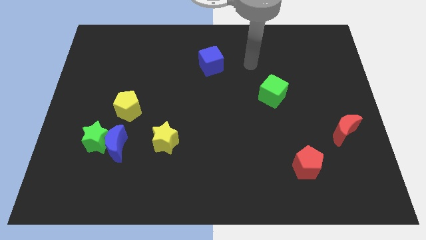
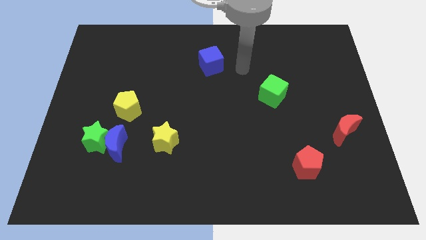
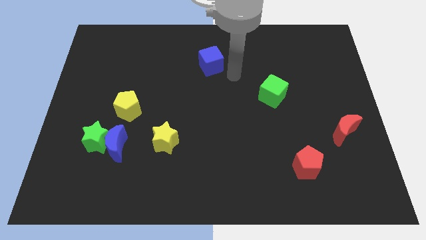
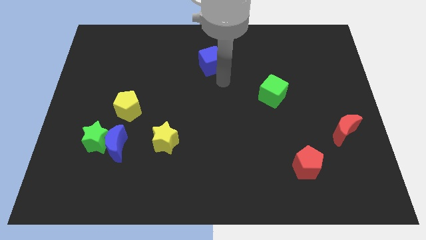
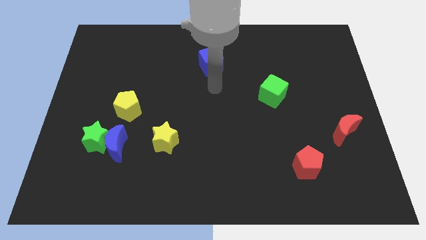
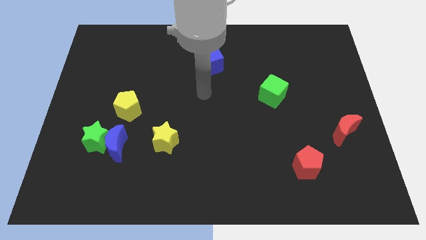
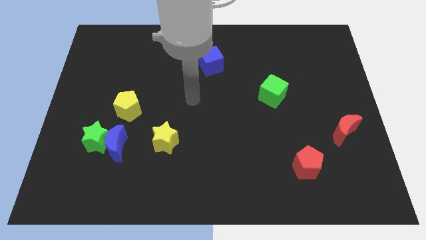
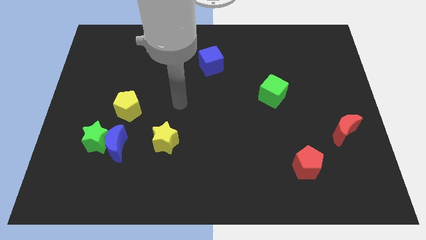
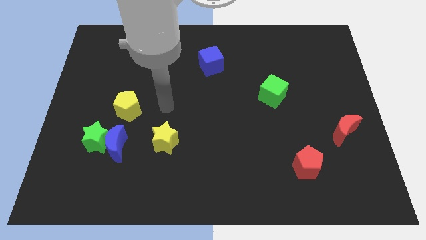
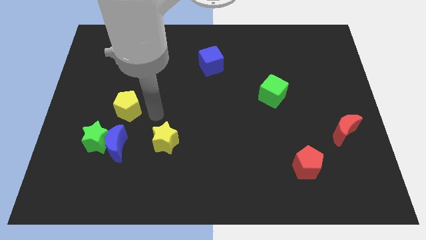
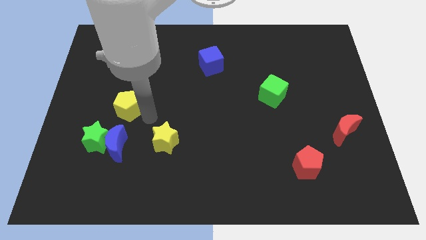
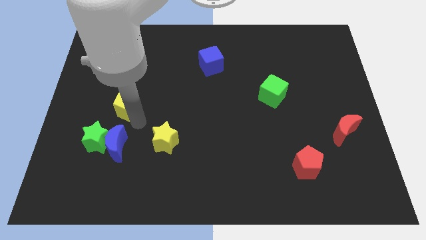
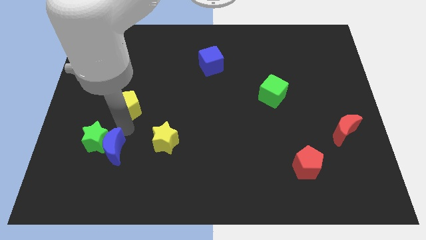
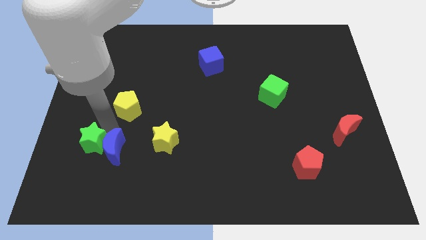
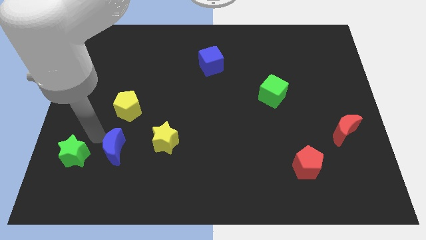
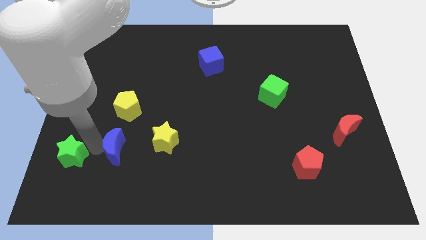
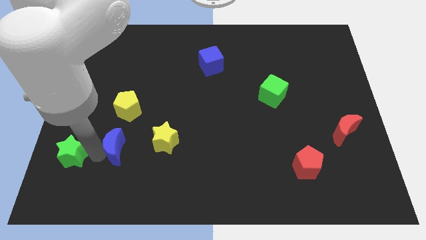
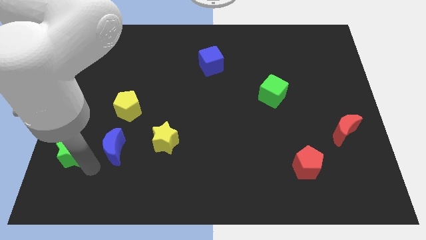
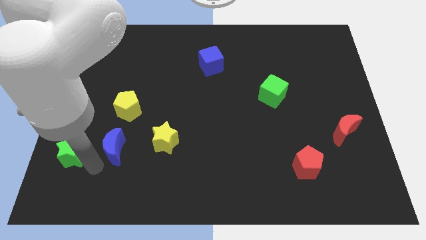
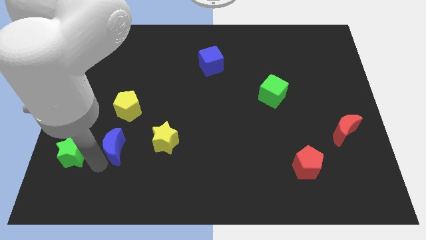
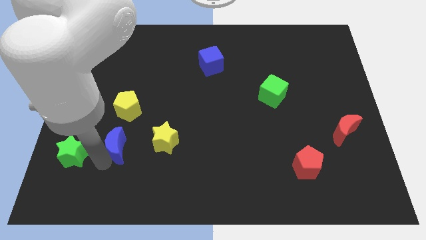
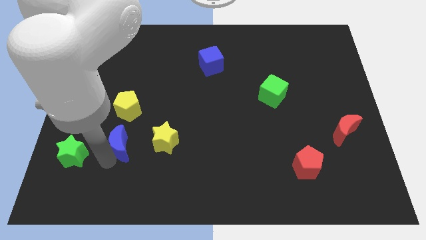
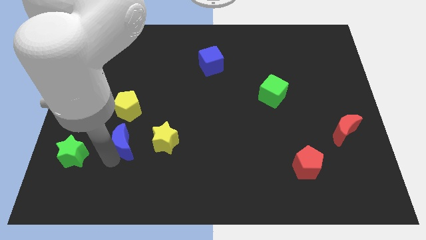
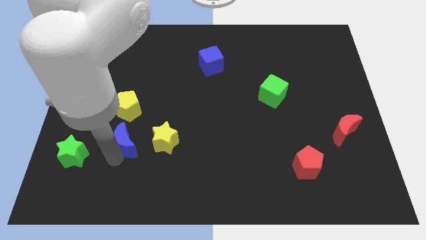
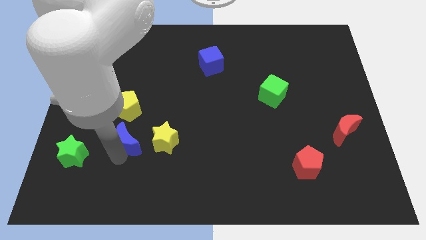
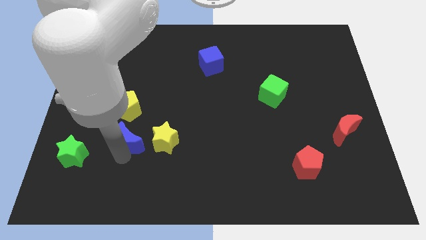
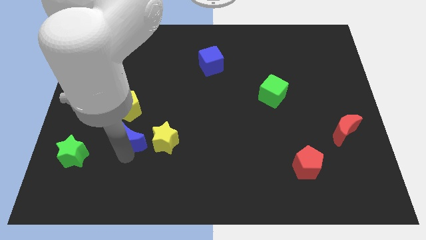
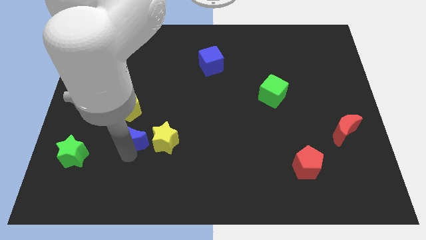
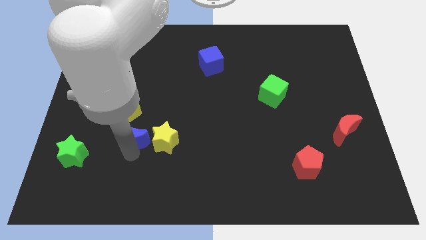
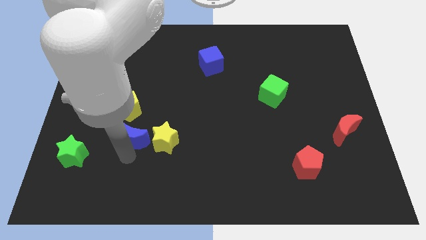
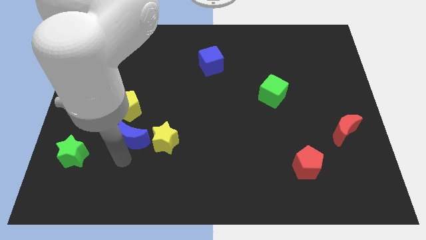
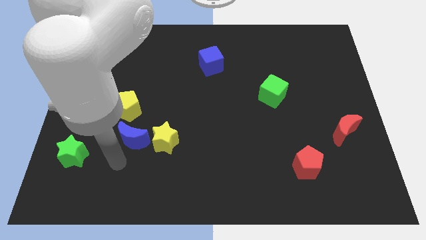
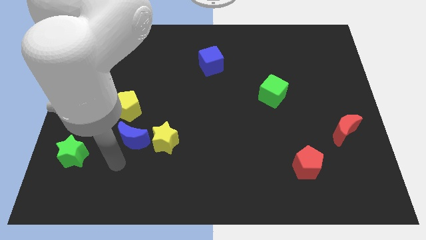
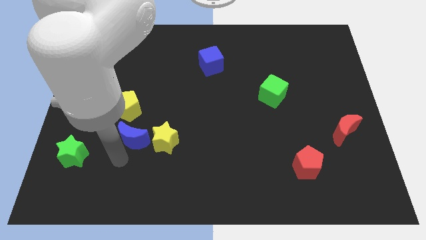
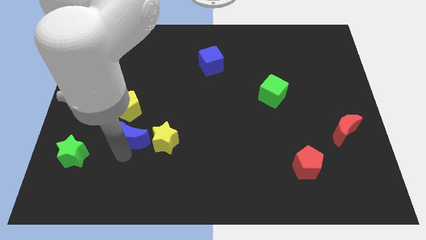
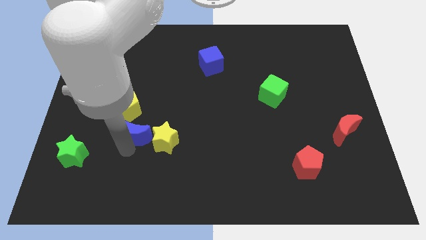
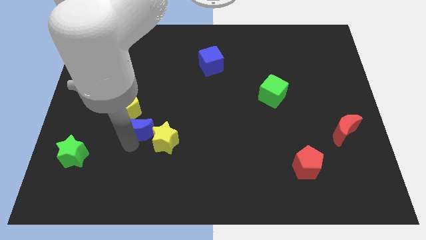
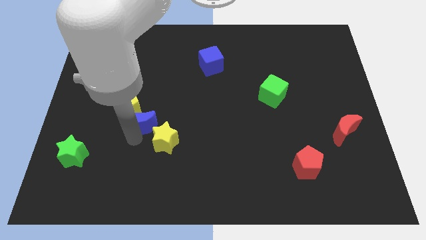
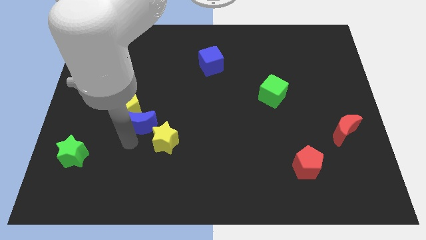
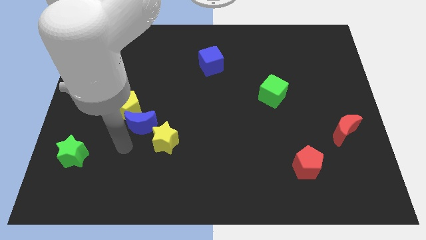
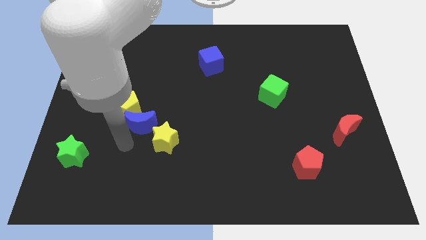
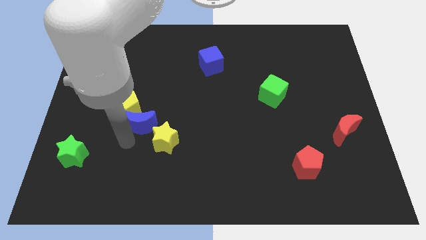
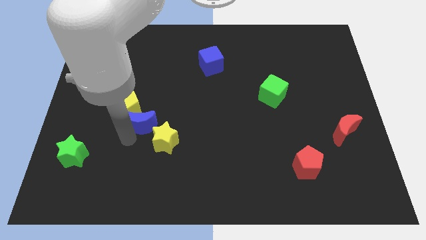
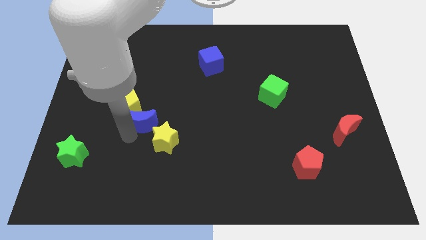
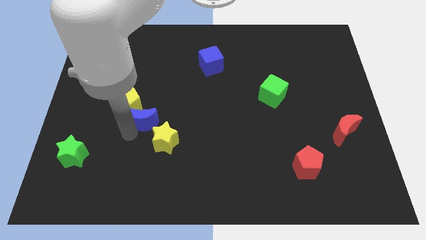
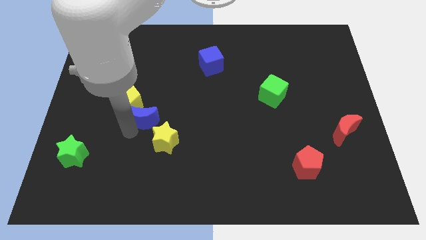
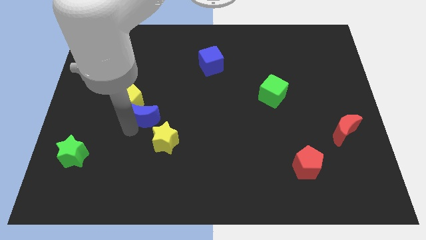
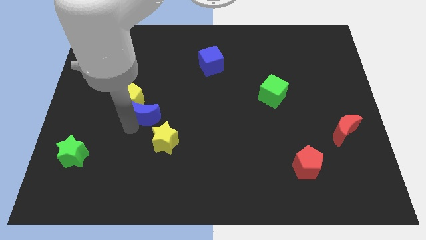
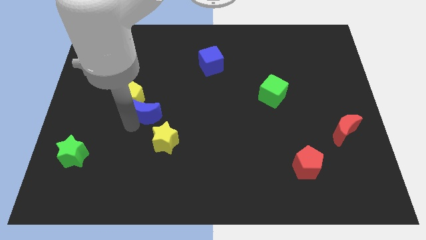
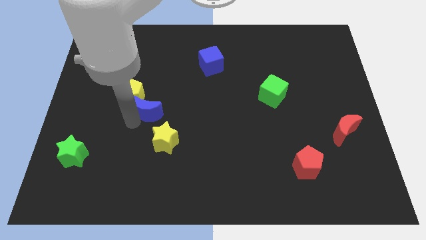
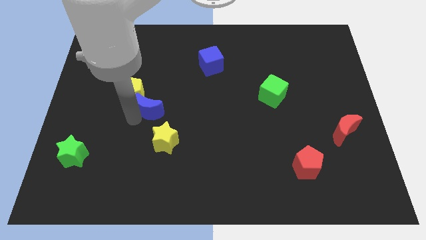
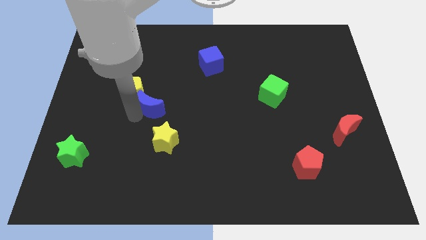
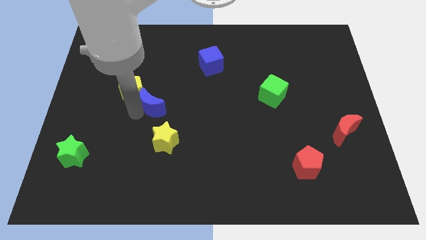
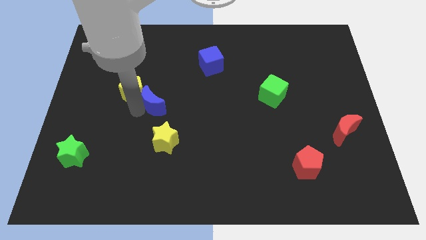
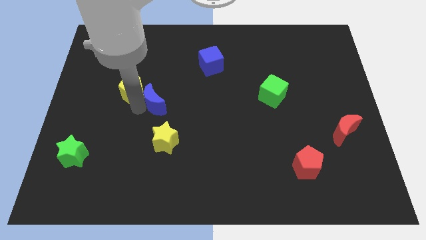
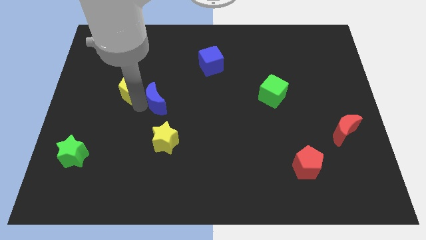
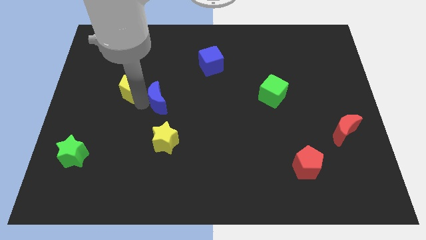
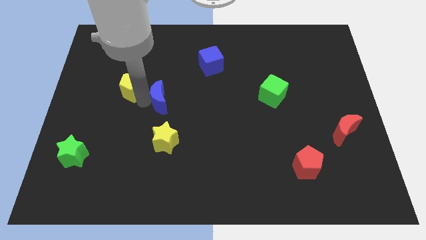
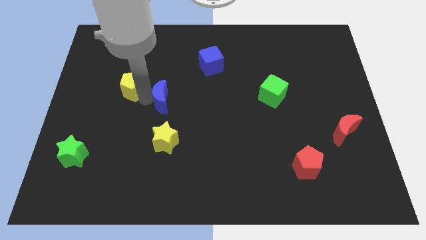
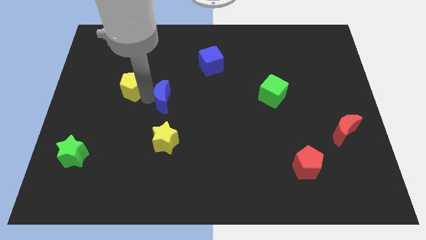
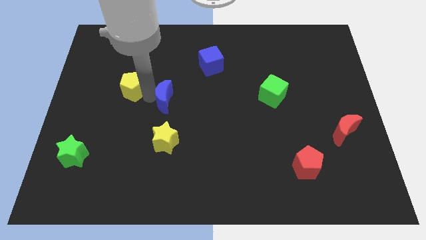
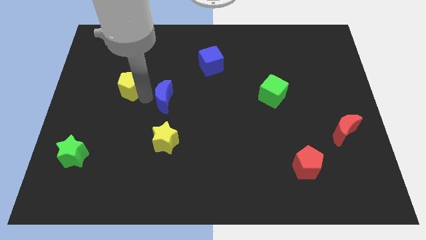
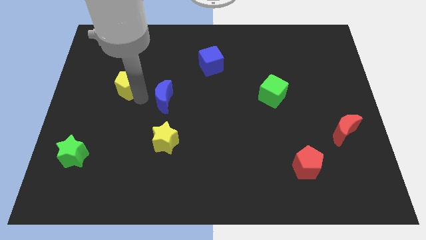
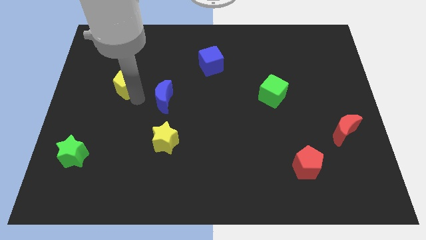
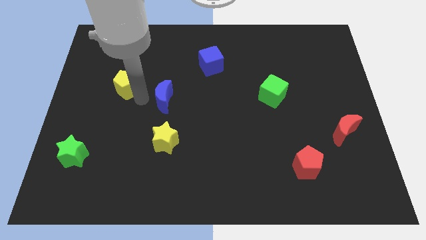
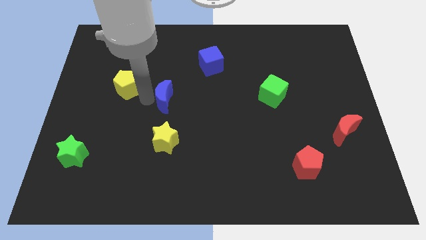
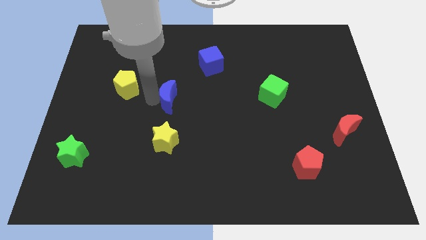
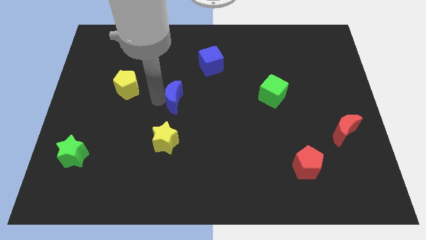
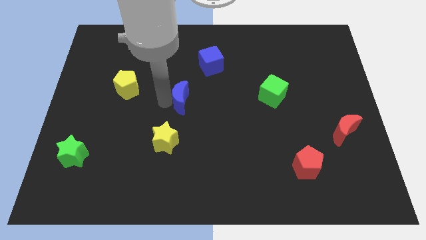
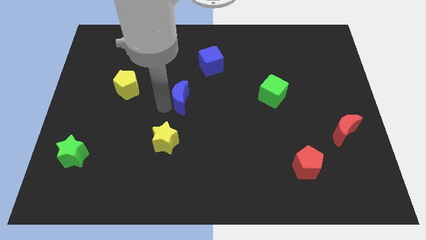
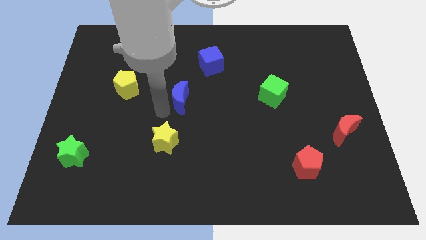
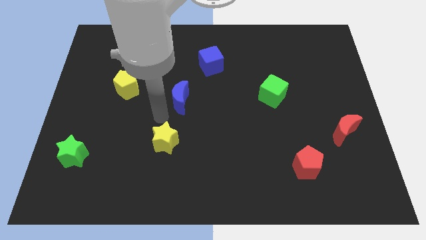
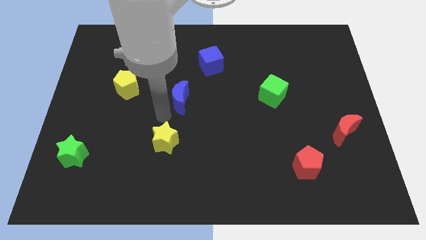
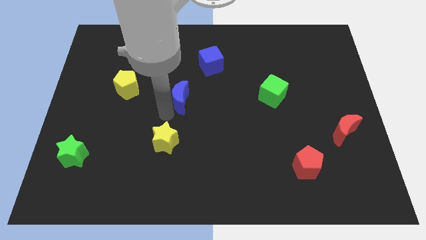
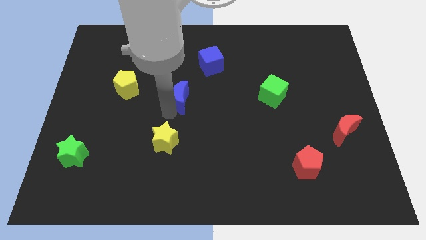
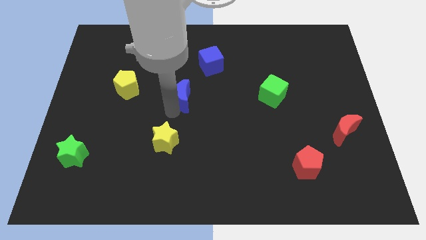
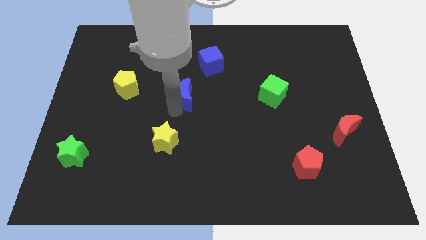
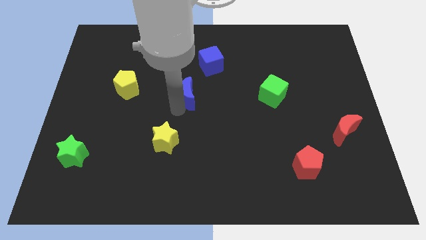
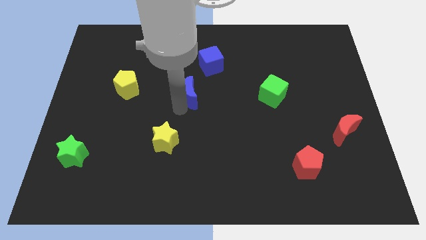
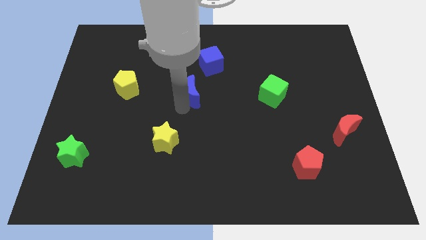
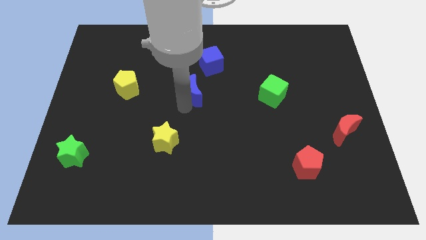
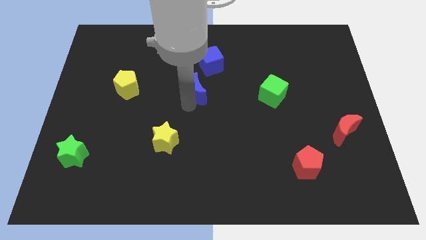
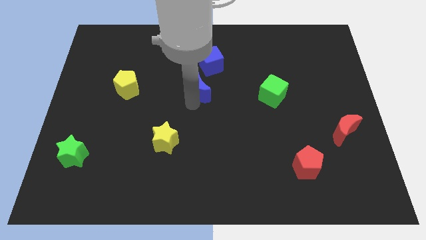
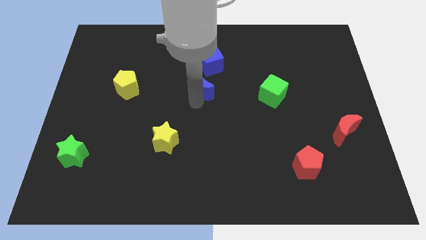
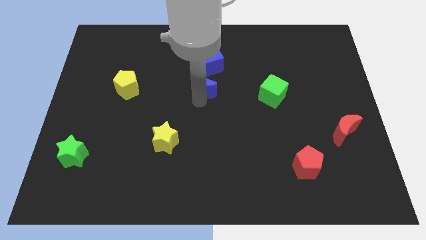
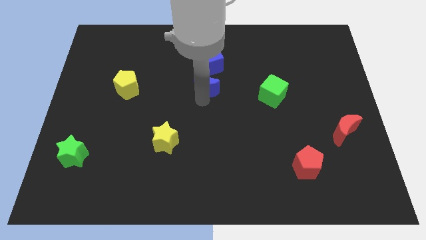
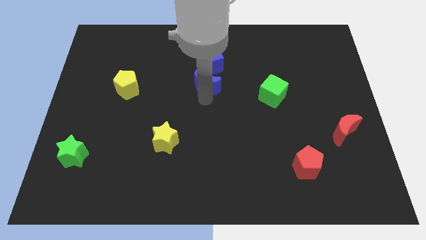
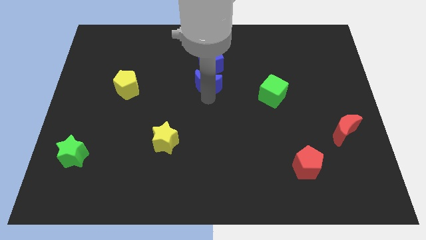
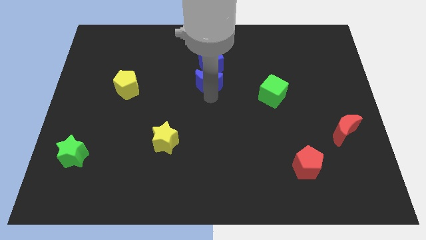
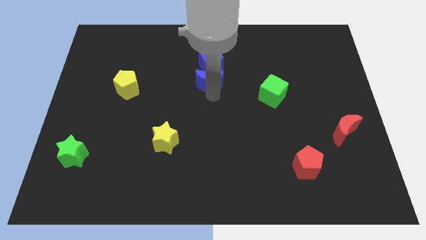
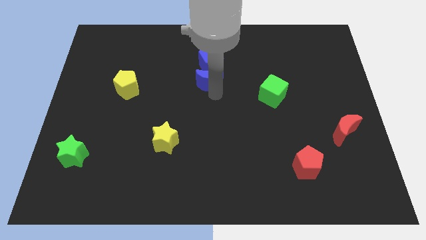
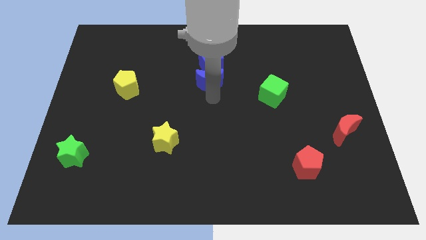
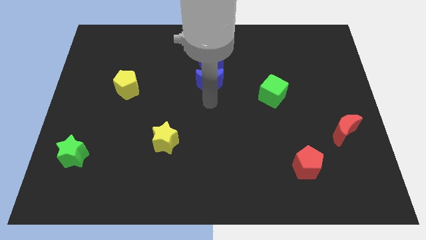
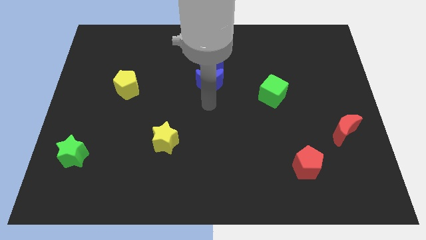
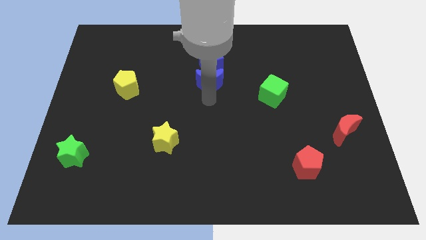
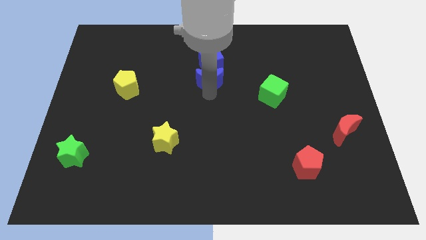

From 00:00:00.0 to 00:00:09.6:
put the blue moon next to the blue cube
